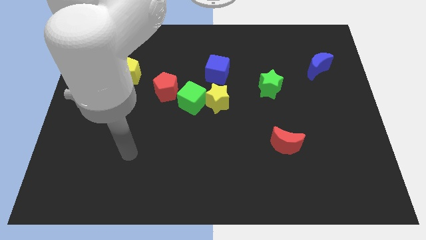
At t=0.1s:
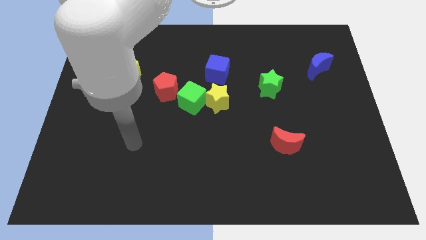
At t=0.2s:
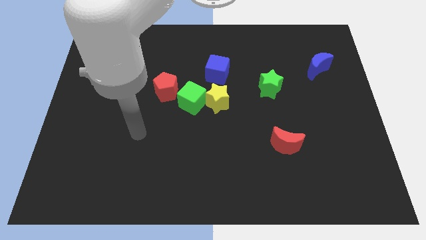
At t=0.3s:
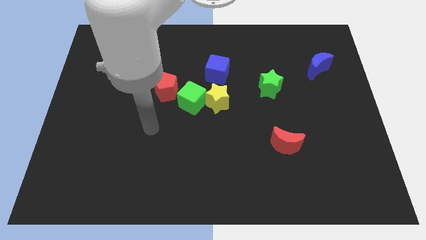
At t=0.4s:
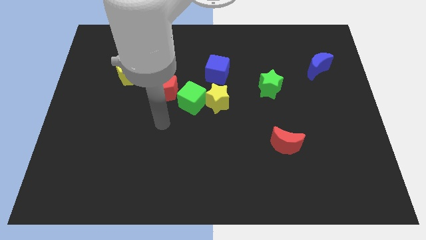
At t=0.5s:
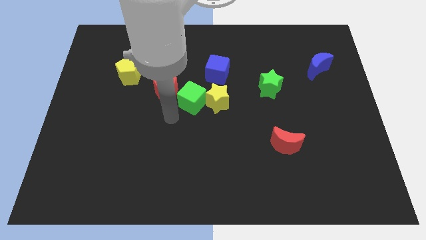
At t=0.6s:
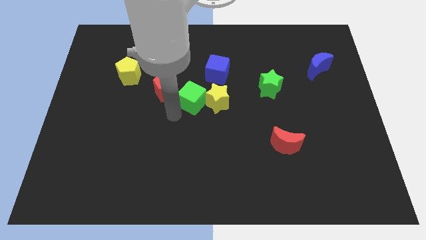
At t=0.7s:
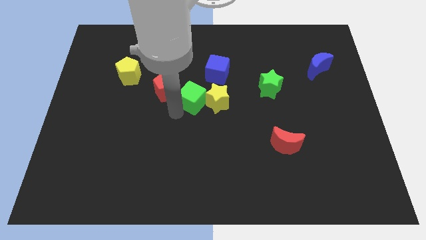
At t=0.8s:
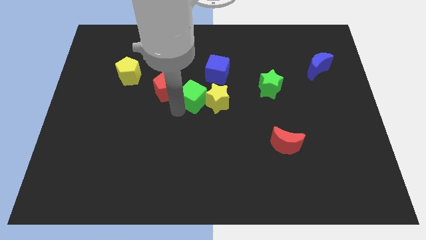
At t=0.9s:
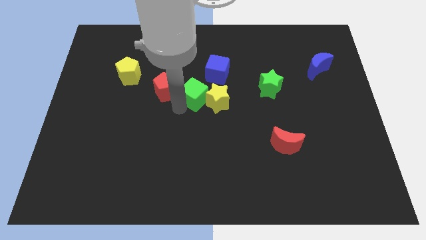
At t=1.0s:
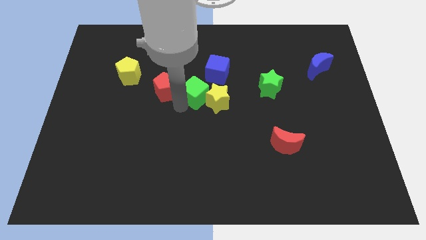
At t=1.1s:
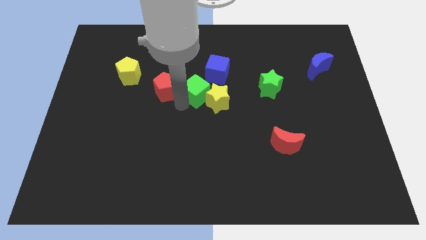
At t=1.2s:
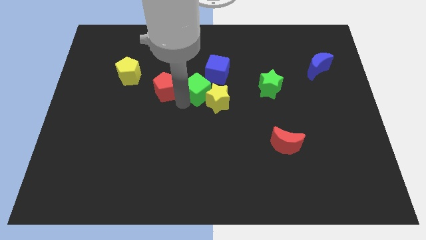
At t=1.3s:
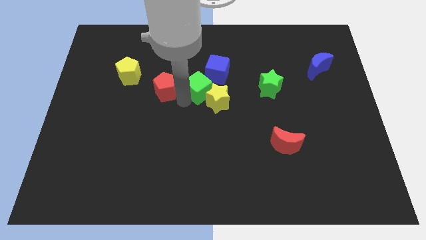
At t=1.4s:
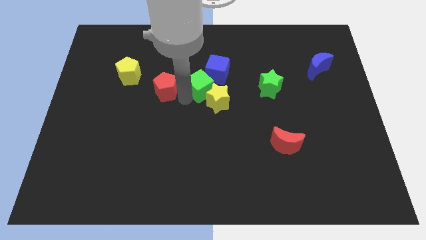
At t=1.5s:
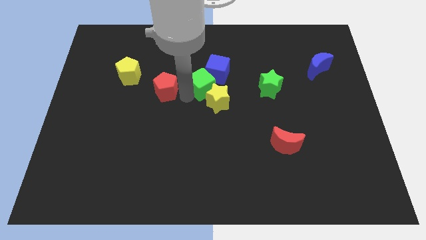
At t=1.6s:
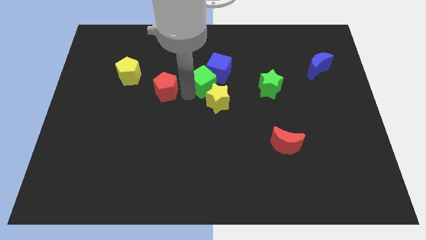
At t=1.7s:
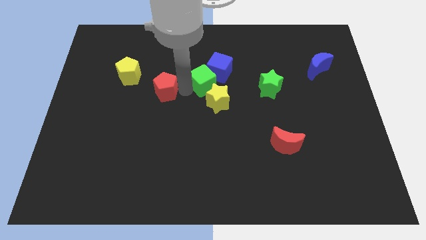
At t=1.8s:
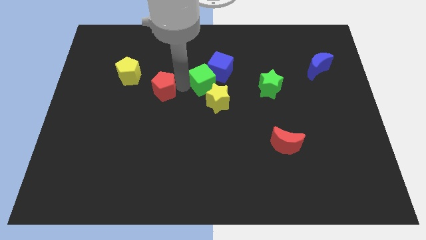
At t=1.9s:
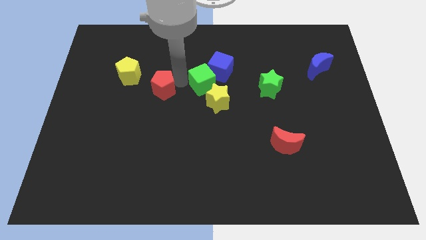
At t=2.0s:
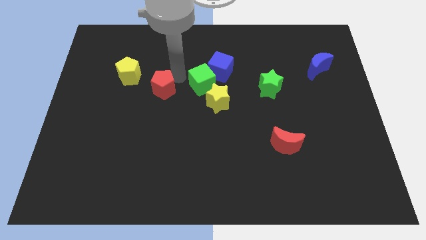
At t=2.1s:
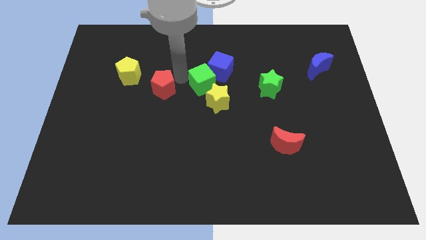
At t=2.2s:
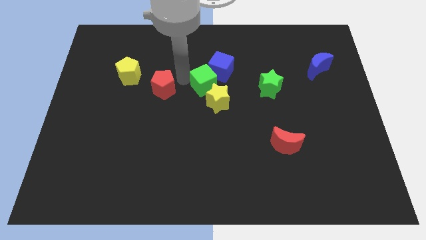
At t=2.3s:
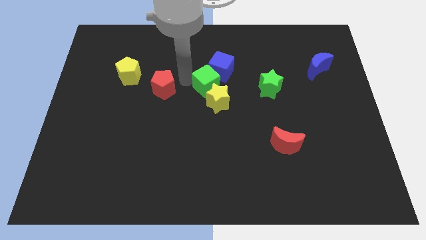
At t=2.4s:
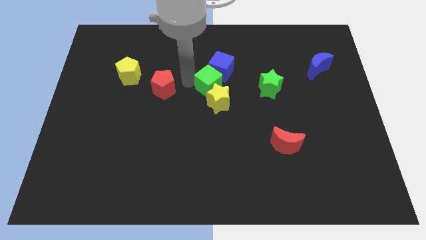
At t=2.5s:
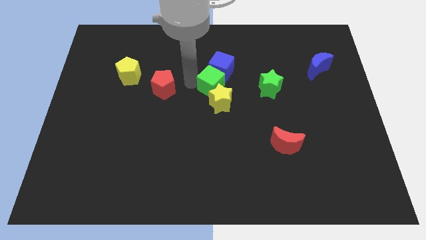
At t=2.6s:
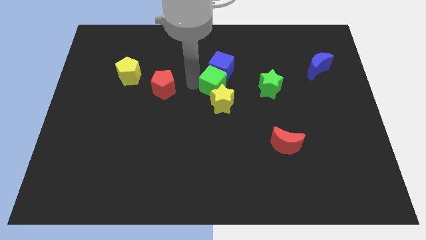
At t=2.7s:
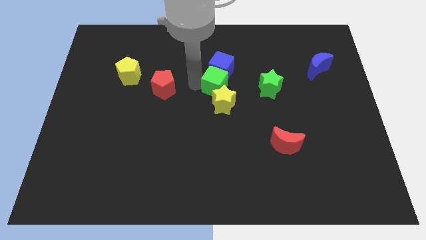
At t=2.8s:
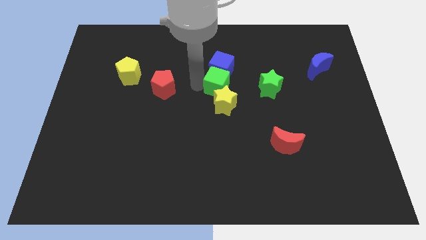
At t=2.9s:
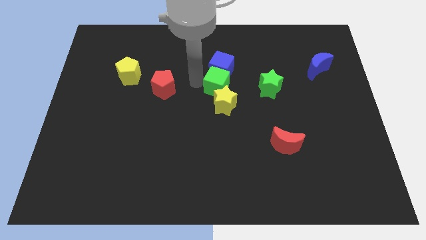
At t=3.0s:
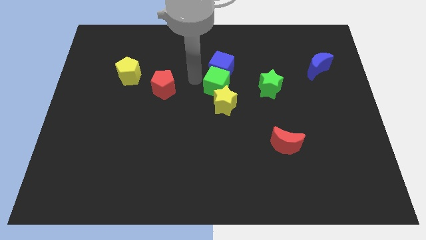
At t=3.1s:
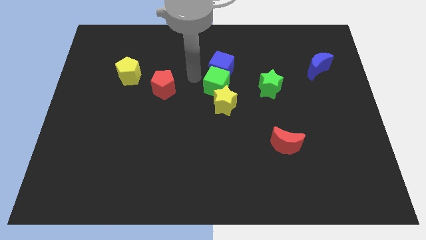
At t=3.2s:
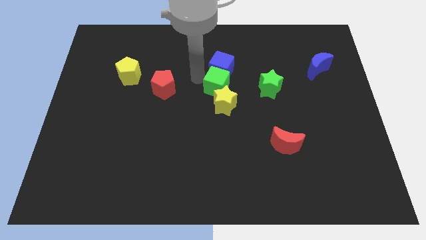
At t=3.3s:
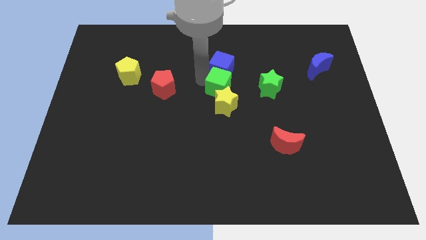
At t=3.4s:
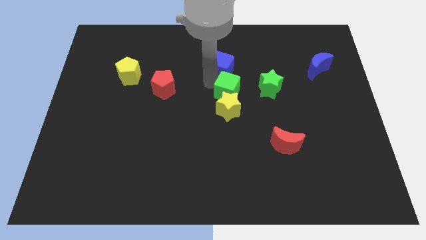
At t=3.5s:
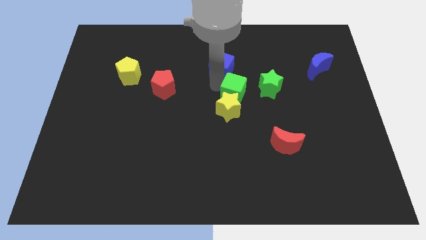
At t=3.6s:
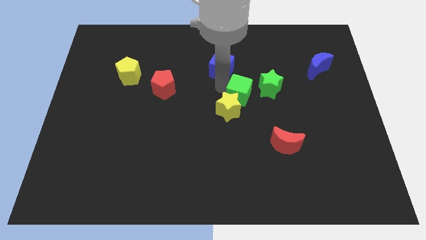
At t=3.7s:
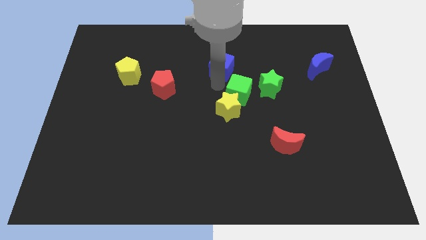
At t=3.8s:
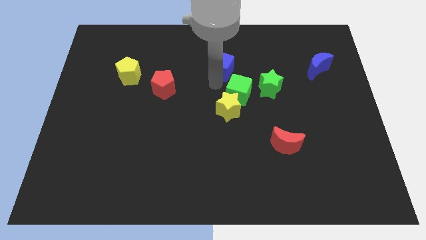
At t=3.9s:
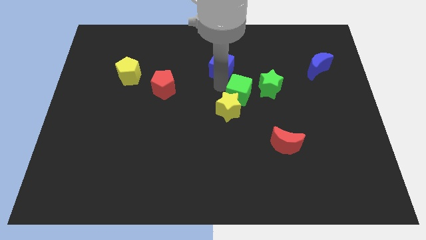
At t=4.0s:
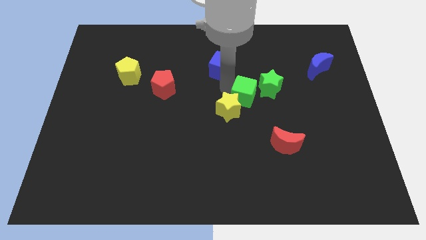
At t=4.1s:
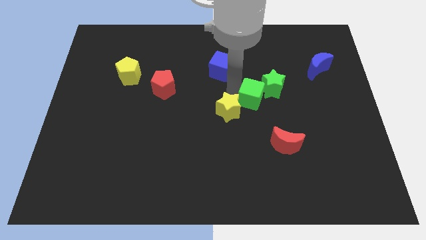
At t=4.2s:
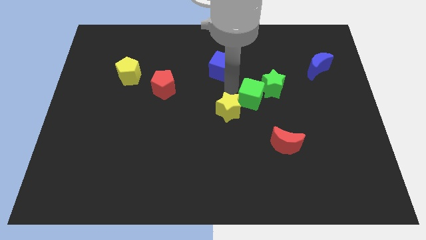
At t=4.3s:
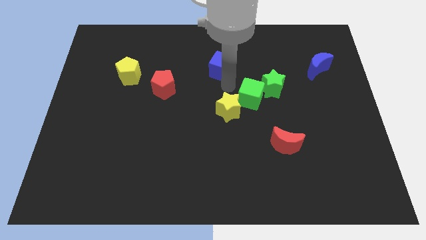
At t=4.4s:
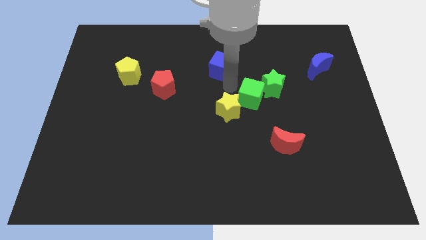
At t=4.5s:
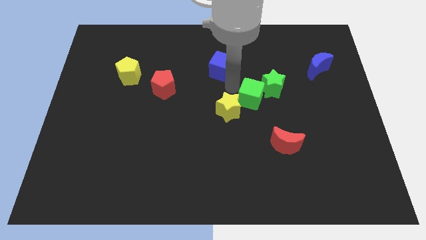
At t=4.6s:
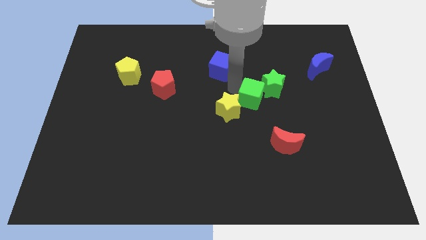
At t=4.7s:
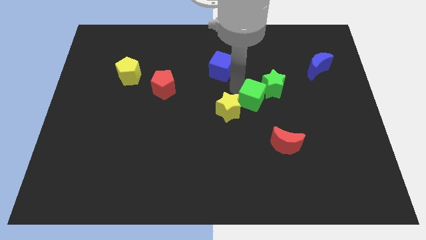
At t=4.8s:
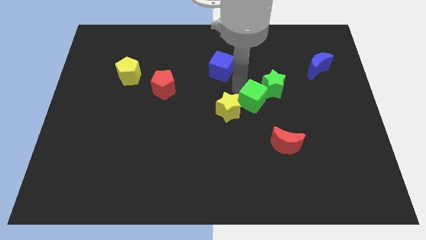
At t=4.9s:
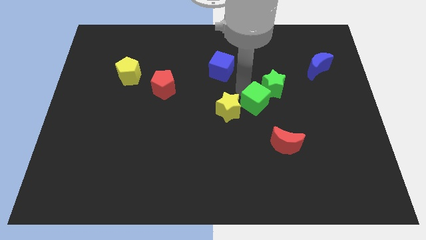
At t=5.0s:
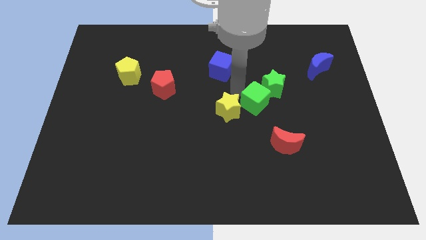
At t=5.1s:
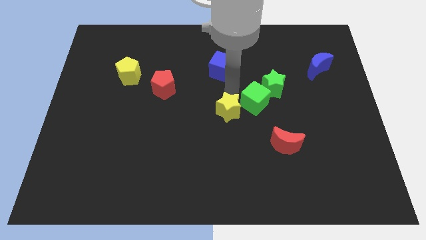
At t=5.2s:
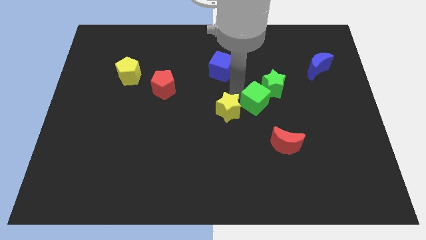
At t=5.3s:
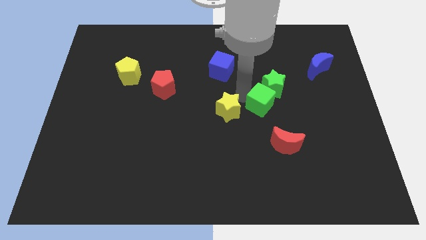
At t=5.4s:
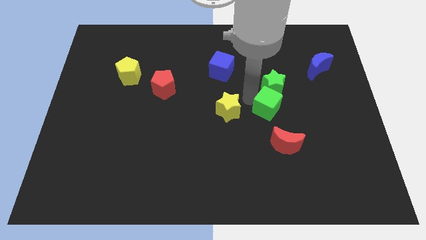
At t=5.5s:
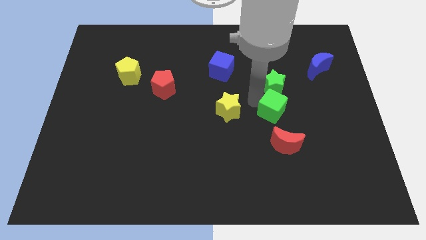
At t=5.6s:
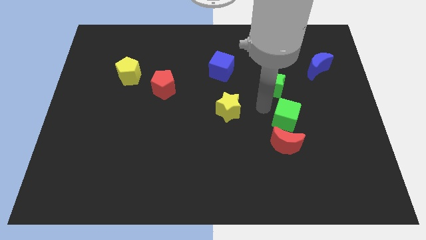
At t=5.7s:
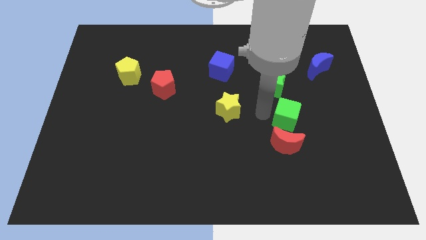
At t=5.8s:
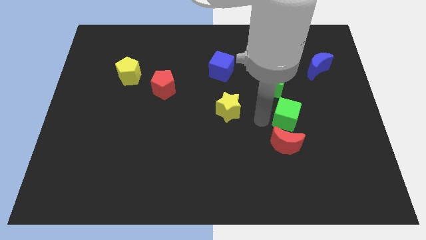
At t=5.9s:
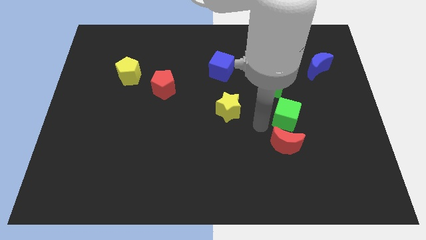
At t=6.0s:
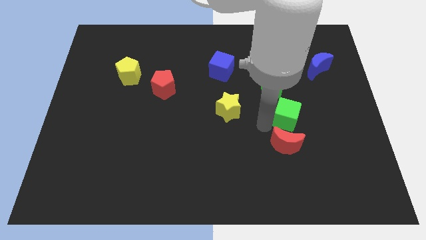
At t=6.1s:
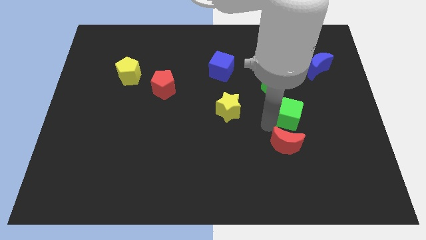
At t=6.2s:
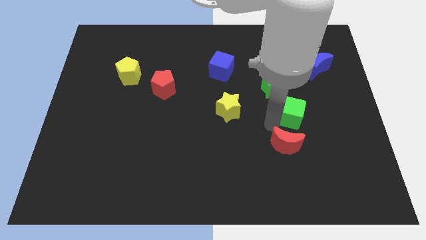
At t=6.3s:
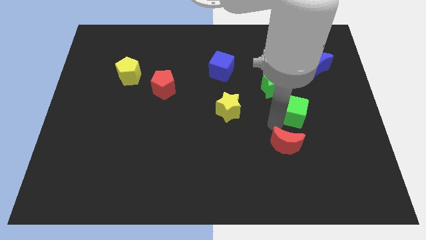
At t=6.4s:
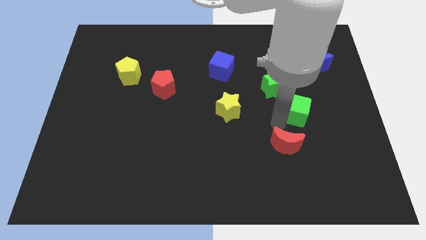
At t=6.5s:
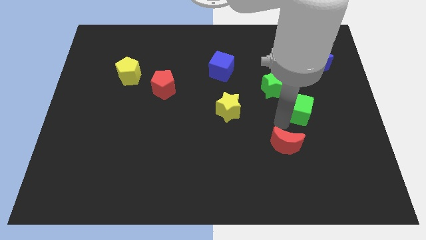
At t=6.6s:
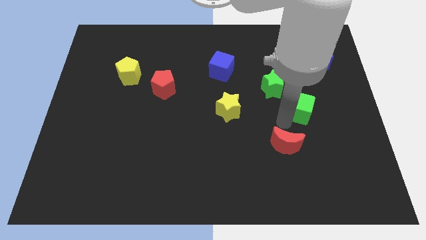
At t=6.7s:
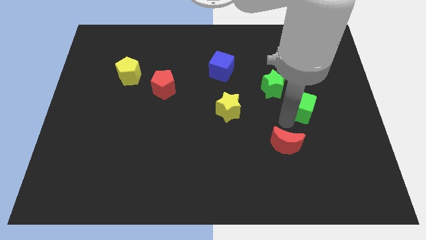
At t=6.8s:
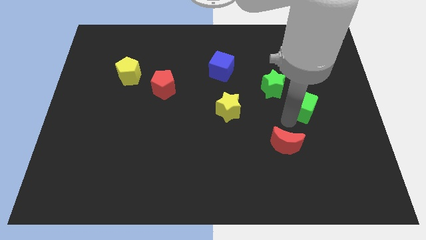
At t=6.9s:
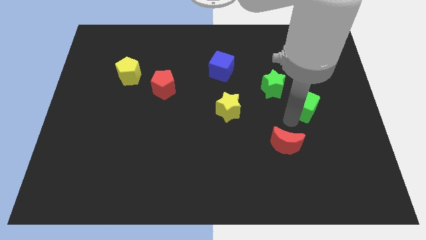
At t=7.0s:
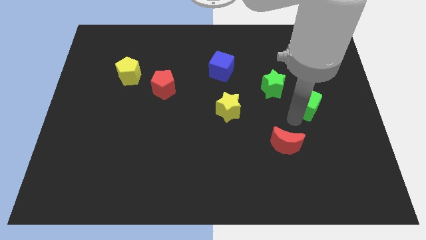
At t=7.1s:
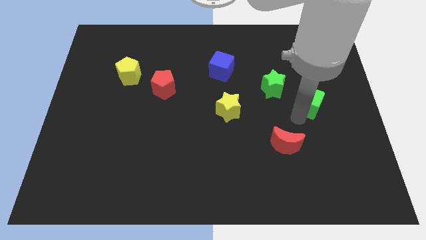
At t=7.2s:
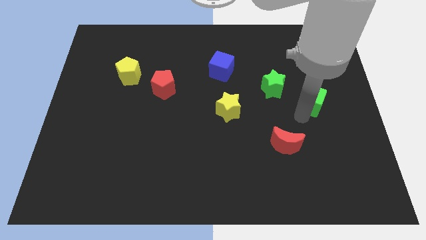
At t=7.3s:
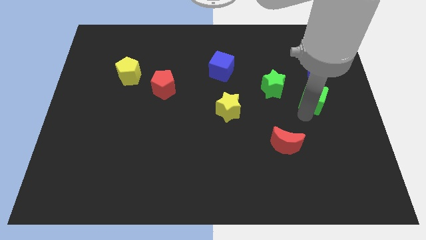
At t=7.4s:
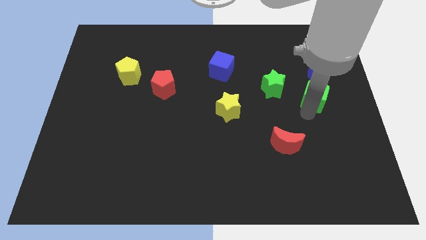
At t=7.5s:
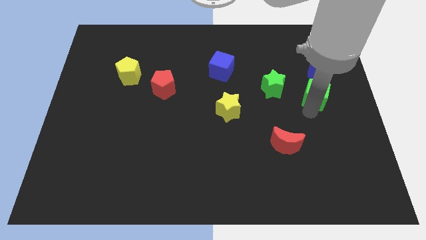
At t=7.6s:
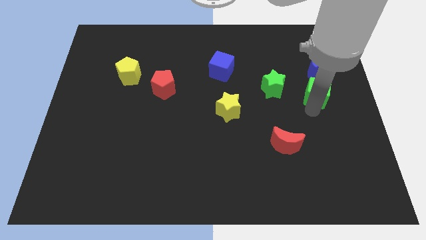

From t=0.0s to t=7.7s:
push the green cube to the center right
